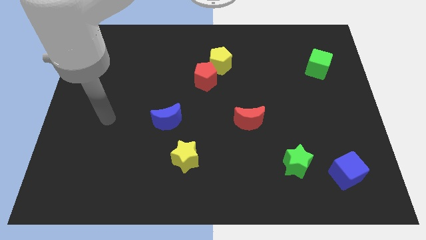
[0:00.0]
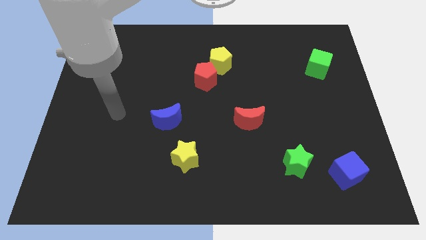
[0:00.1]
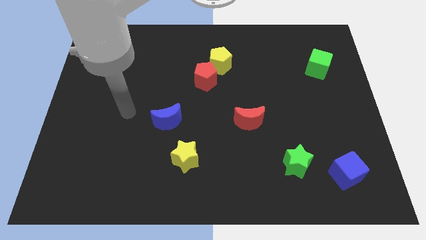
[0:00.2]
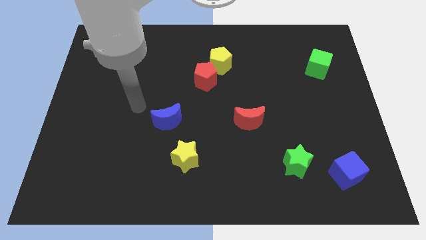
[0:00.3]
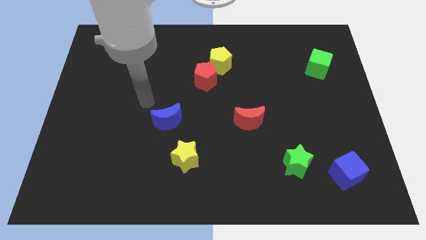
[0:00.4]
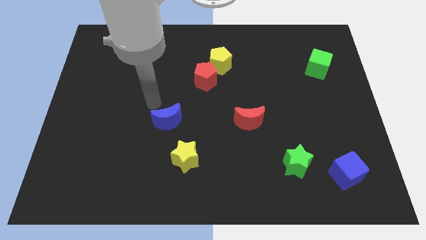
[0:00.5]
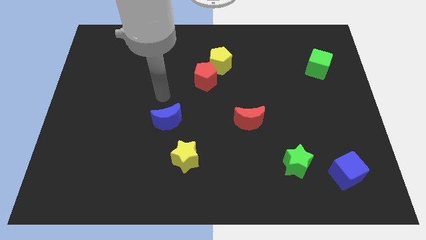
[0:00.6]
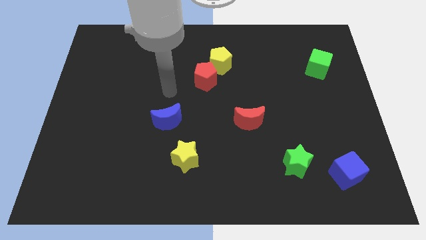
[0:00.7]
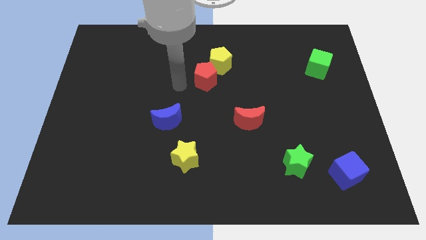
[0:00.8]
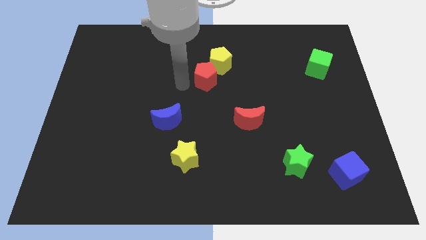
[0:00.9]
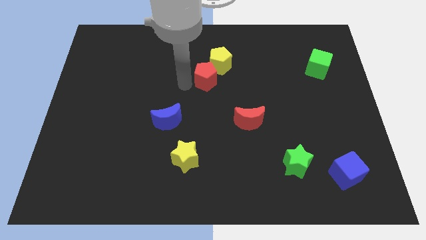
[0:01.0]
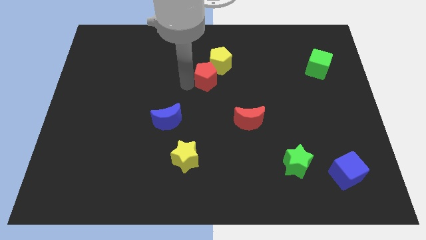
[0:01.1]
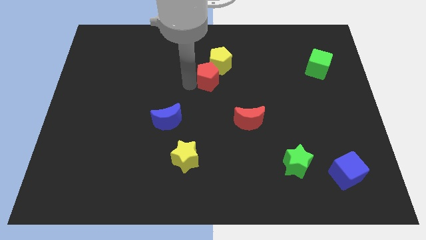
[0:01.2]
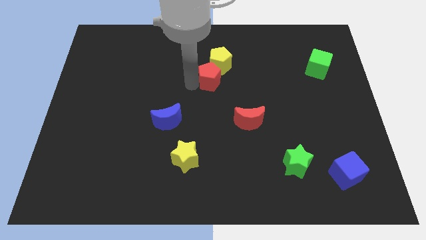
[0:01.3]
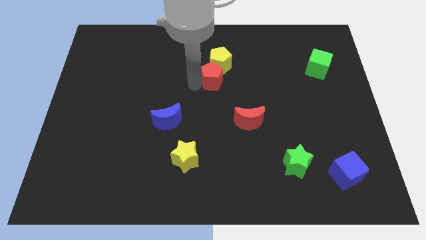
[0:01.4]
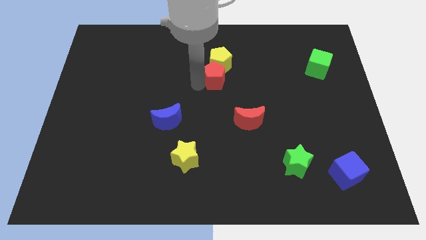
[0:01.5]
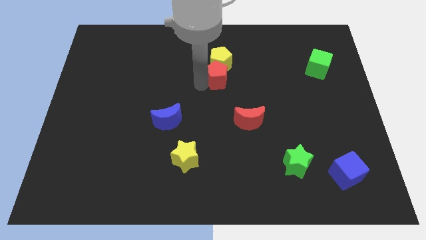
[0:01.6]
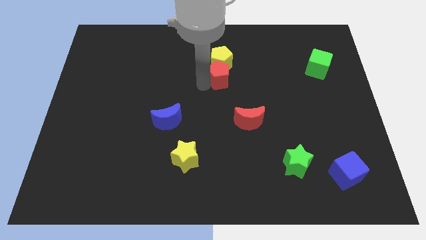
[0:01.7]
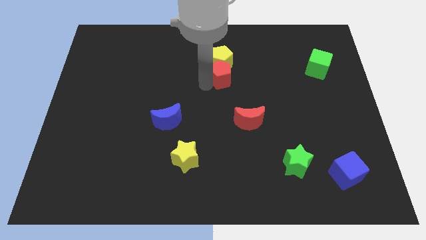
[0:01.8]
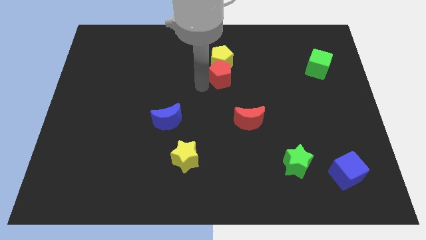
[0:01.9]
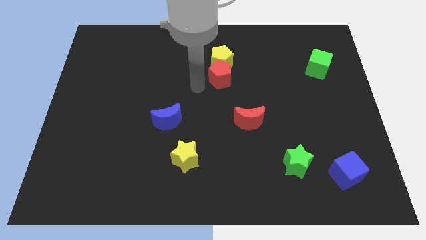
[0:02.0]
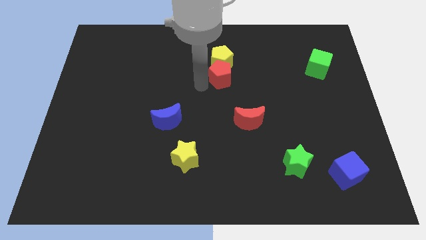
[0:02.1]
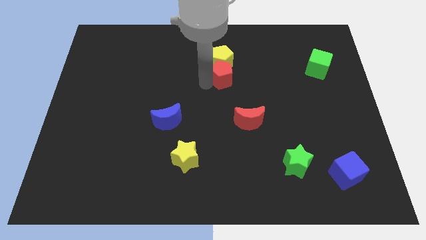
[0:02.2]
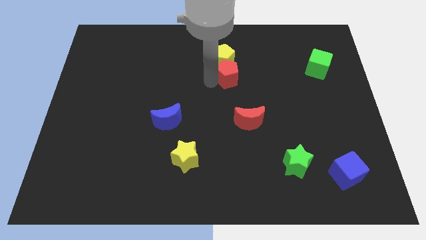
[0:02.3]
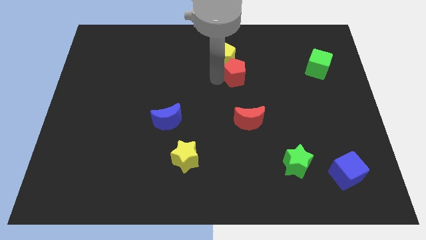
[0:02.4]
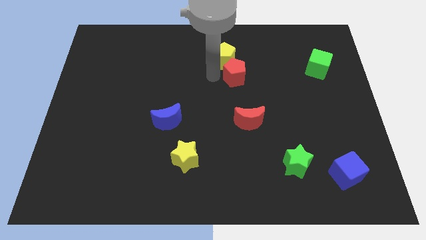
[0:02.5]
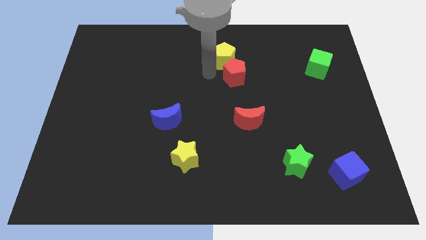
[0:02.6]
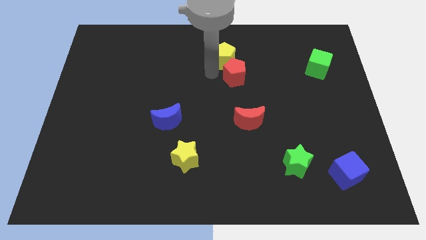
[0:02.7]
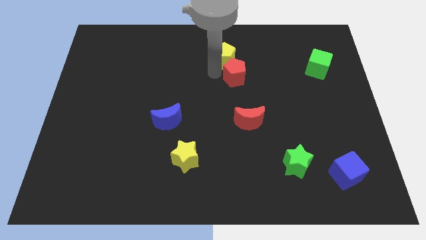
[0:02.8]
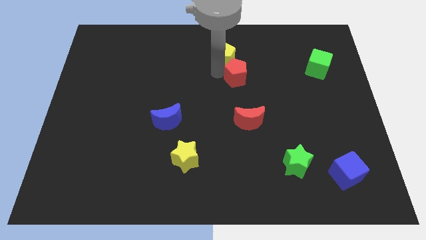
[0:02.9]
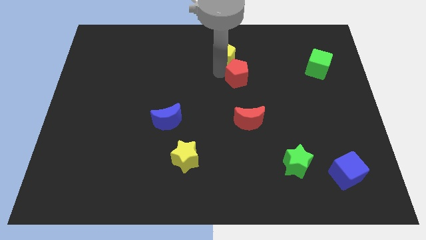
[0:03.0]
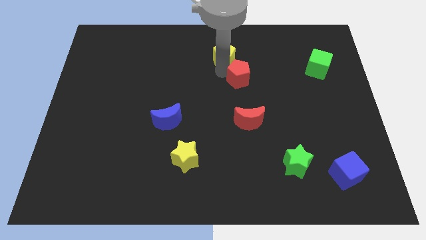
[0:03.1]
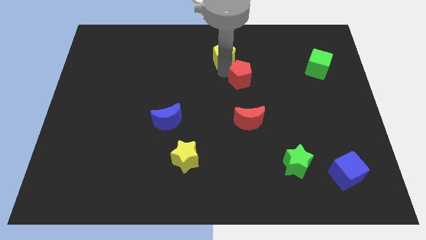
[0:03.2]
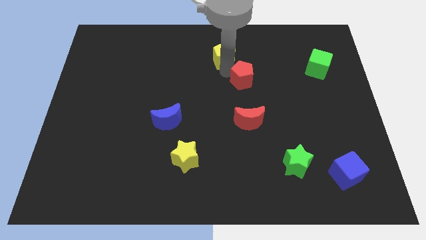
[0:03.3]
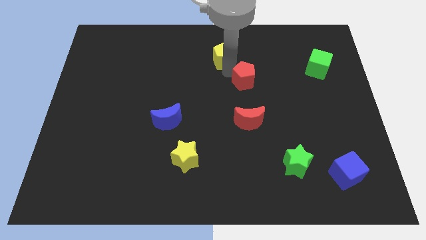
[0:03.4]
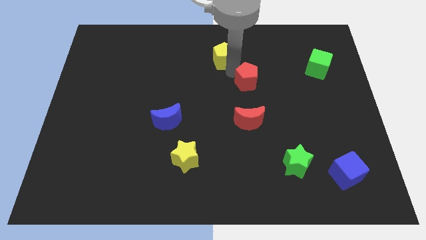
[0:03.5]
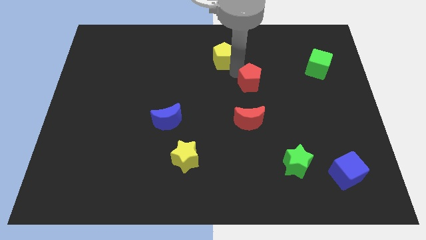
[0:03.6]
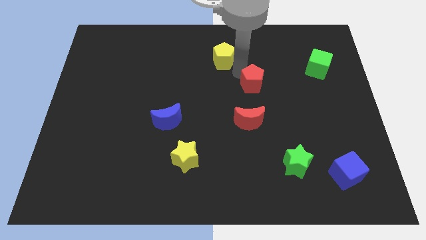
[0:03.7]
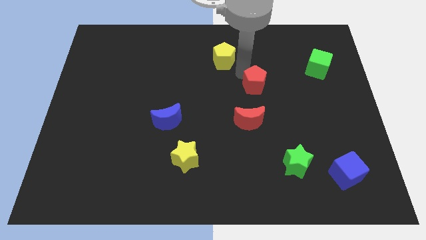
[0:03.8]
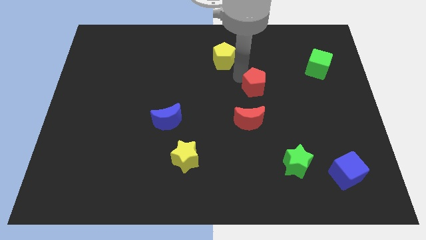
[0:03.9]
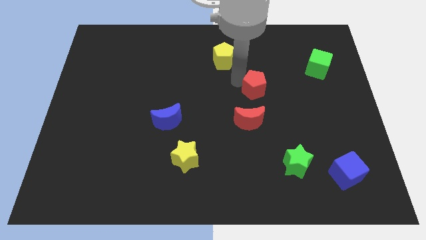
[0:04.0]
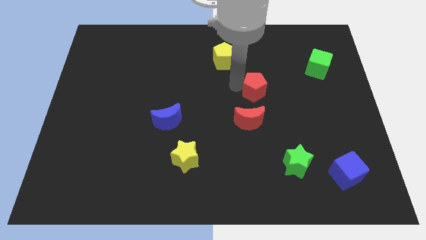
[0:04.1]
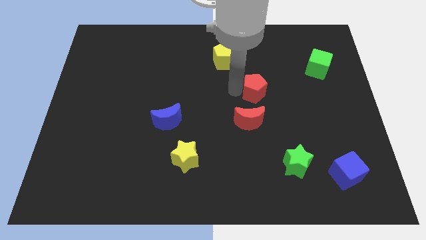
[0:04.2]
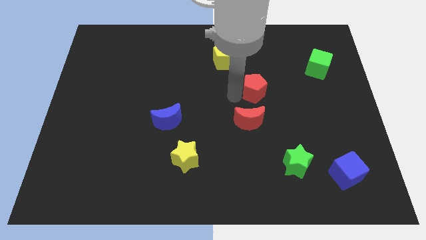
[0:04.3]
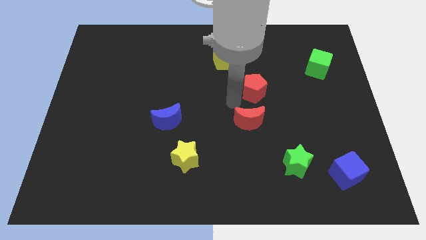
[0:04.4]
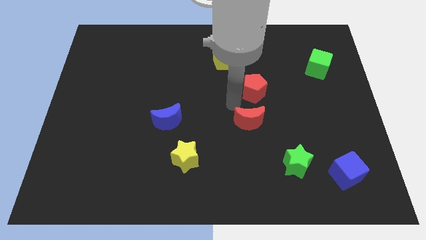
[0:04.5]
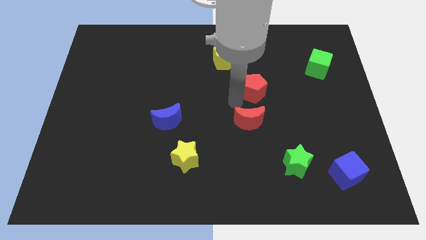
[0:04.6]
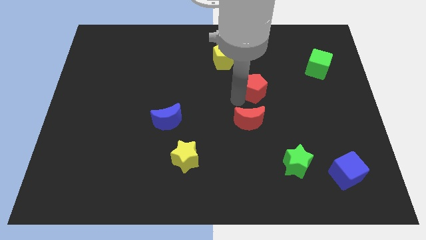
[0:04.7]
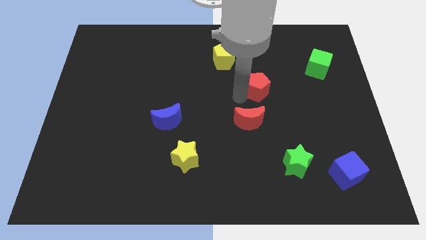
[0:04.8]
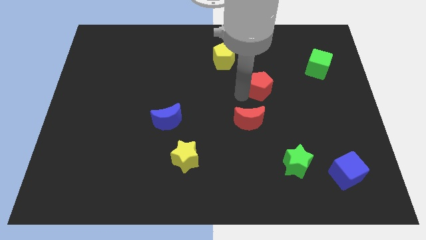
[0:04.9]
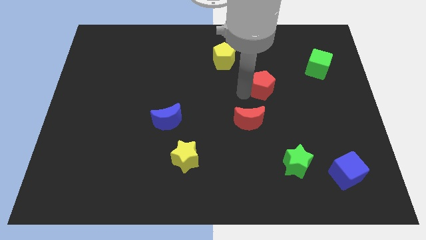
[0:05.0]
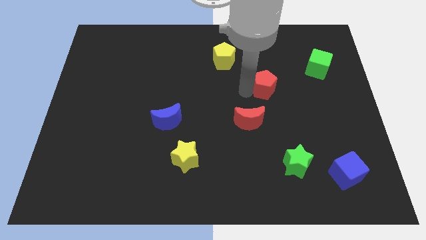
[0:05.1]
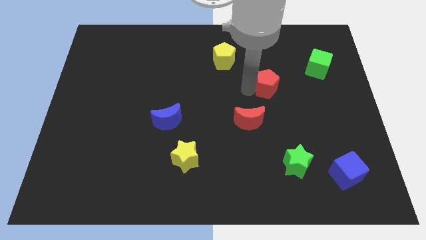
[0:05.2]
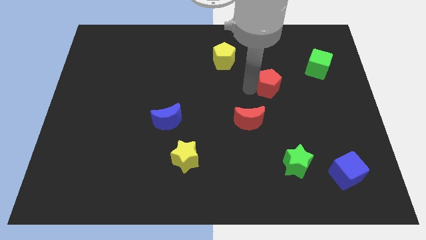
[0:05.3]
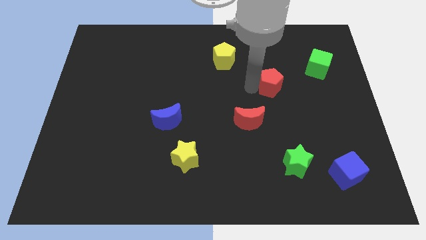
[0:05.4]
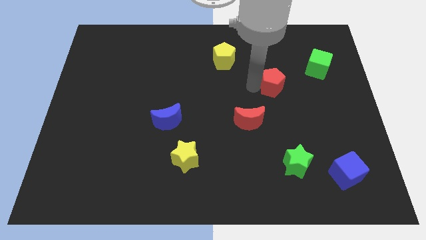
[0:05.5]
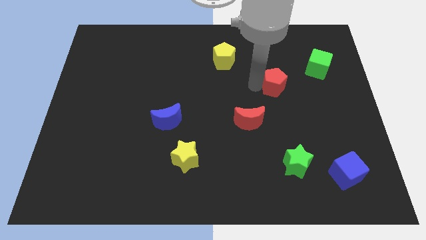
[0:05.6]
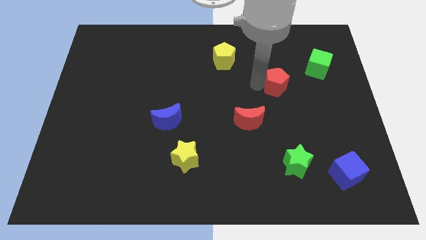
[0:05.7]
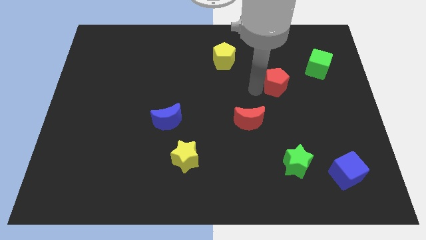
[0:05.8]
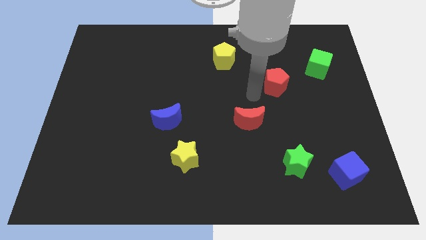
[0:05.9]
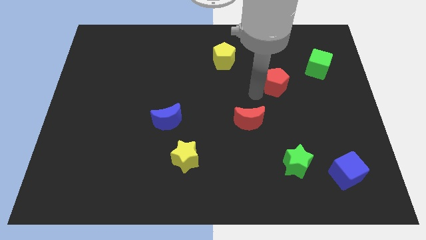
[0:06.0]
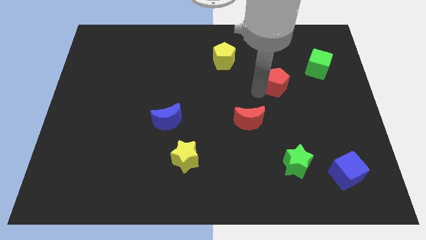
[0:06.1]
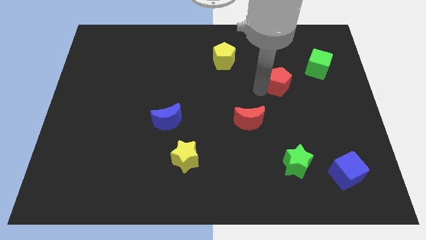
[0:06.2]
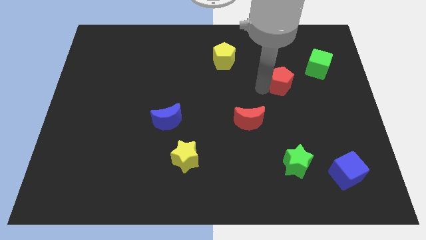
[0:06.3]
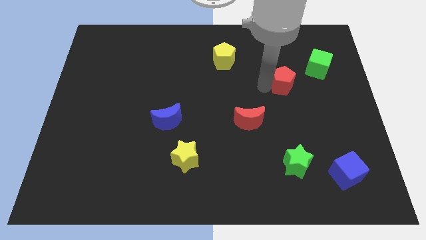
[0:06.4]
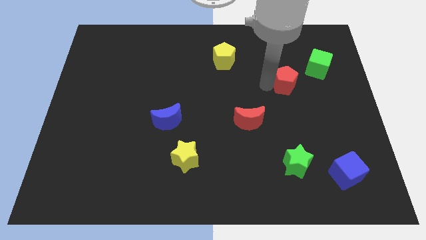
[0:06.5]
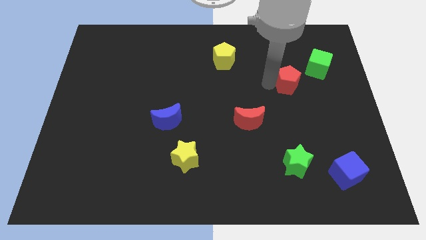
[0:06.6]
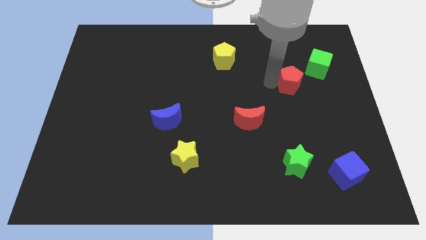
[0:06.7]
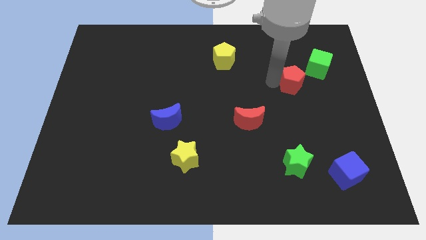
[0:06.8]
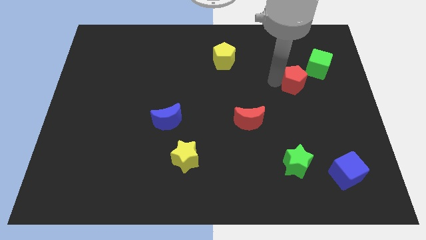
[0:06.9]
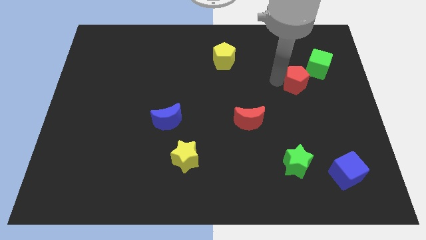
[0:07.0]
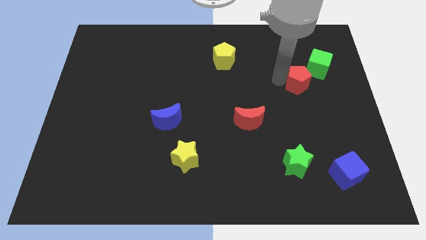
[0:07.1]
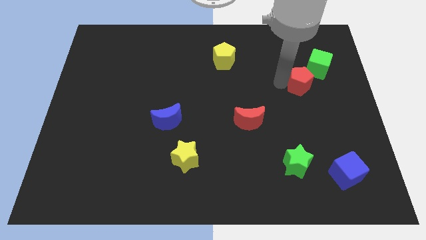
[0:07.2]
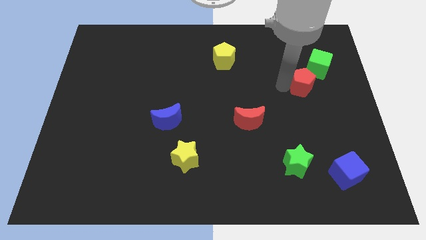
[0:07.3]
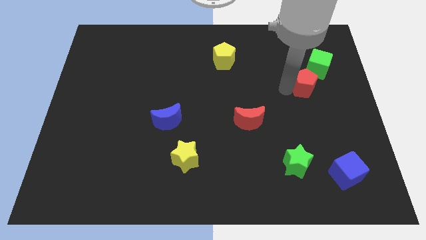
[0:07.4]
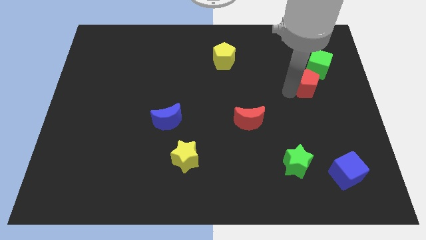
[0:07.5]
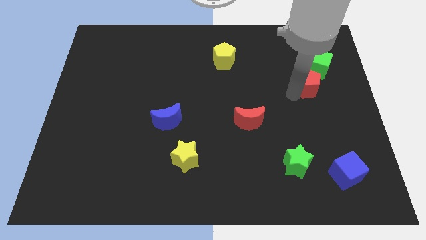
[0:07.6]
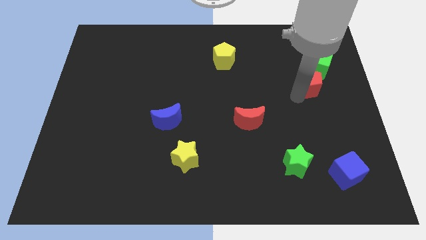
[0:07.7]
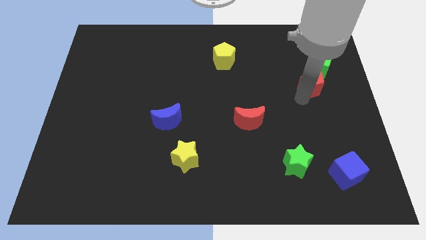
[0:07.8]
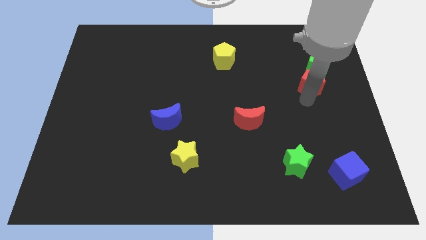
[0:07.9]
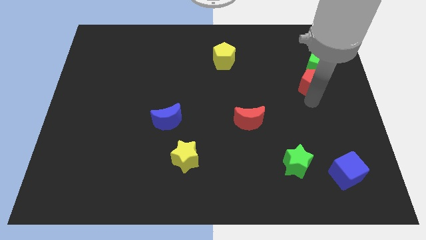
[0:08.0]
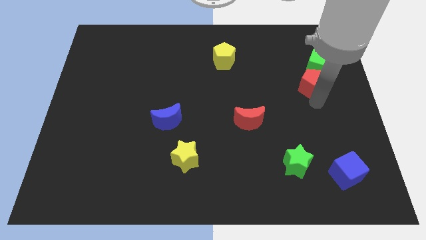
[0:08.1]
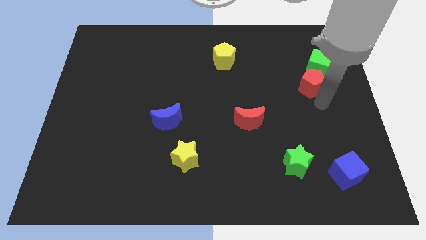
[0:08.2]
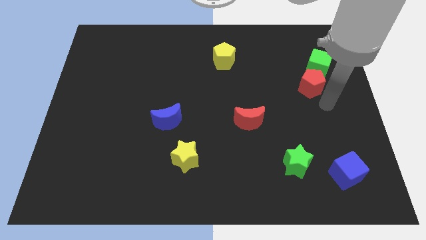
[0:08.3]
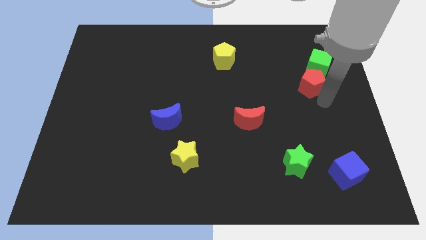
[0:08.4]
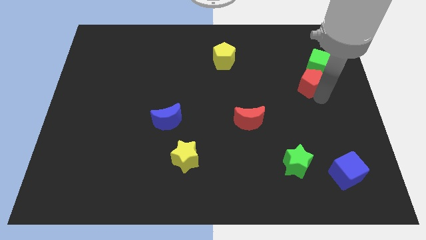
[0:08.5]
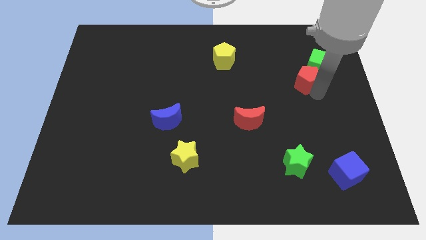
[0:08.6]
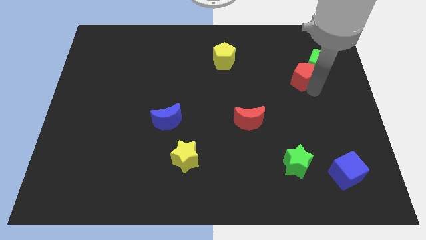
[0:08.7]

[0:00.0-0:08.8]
move the red pentagon towards the green cube
